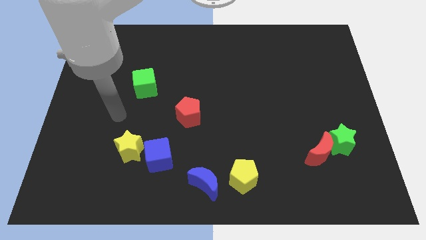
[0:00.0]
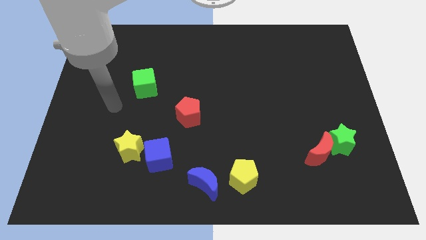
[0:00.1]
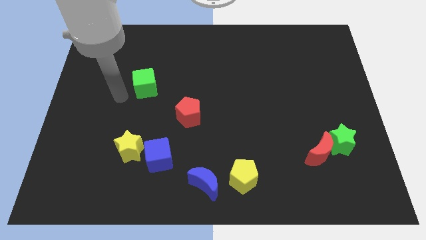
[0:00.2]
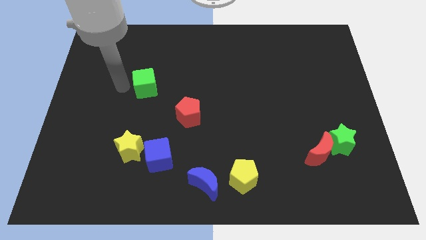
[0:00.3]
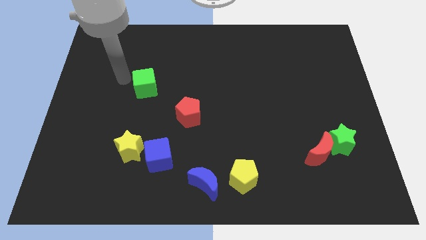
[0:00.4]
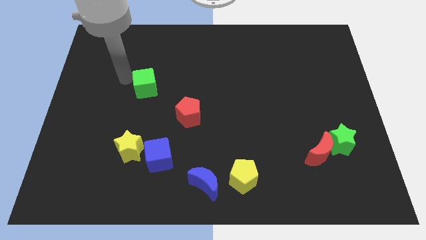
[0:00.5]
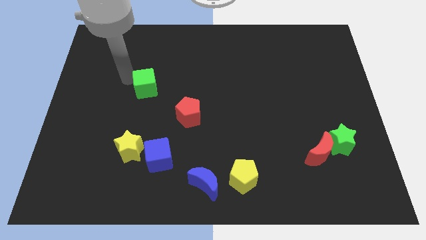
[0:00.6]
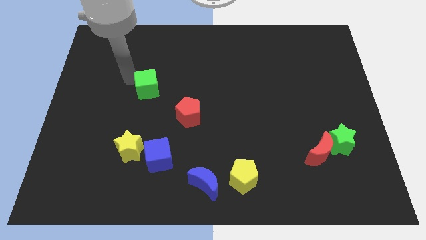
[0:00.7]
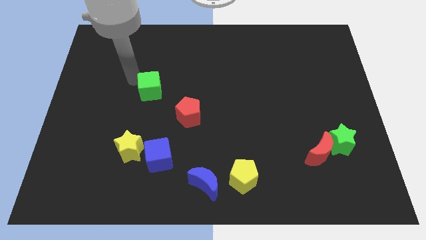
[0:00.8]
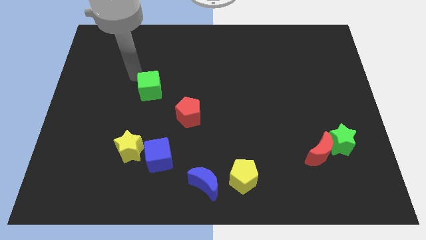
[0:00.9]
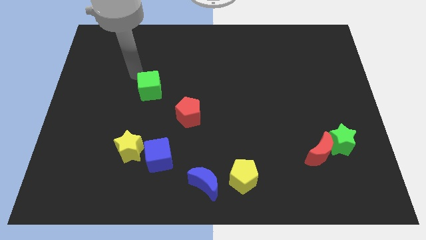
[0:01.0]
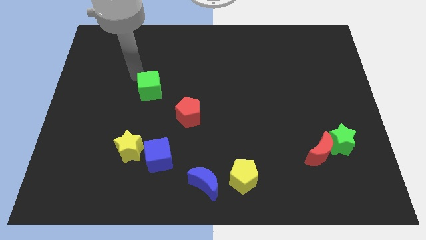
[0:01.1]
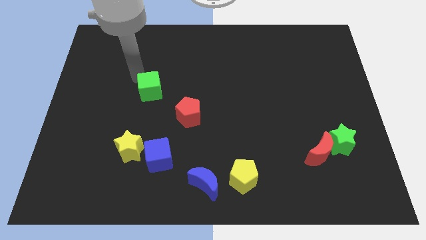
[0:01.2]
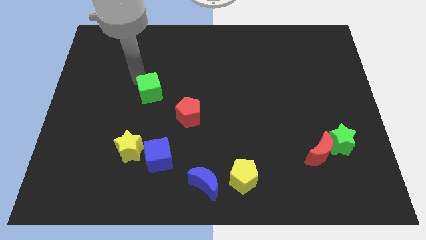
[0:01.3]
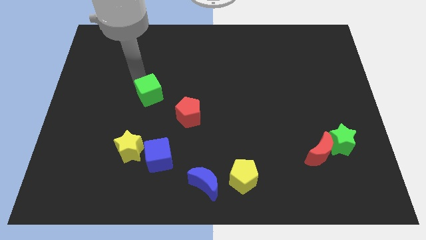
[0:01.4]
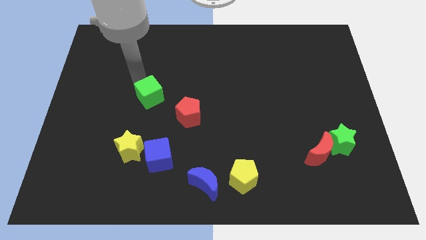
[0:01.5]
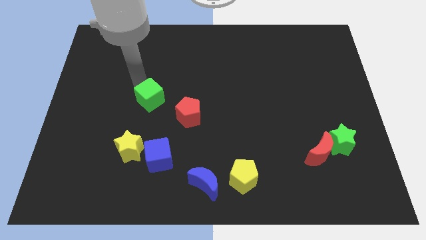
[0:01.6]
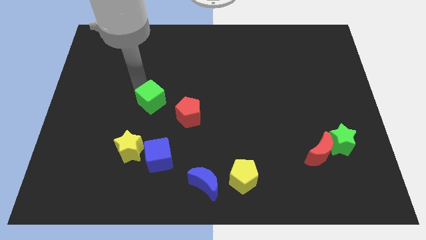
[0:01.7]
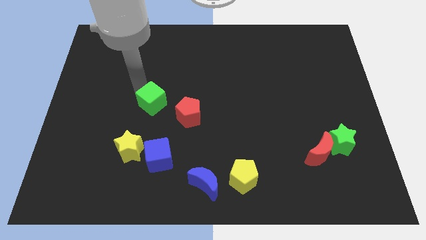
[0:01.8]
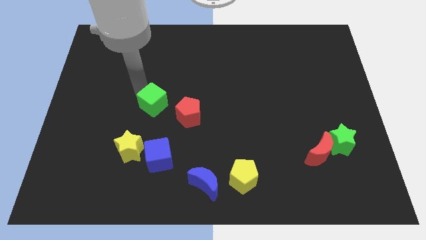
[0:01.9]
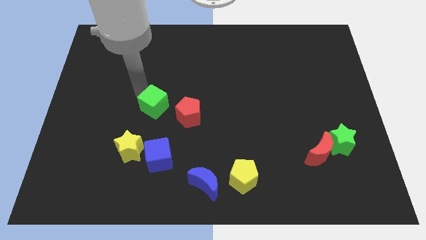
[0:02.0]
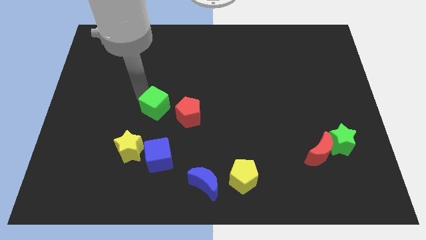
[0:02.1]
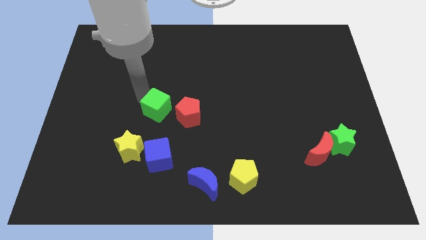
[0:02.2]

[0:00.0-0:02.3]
slide the green cube diagonally down and to the right slightly

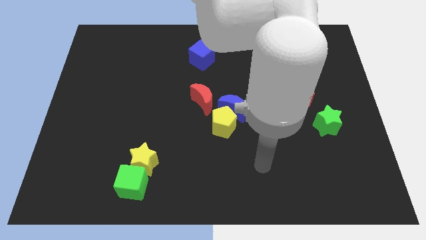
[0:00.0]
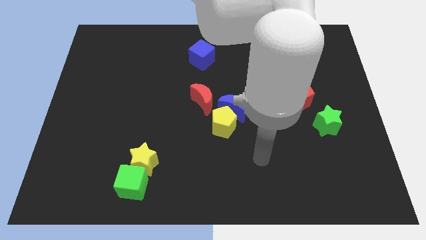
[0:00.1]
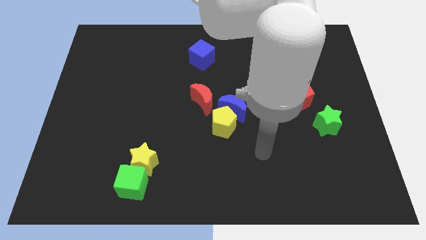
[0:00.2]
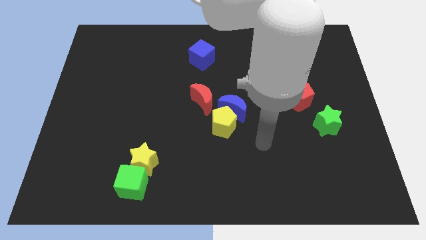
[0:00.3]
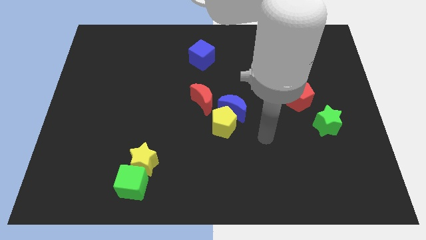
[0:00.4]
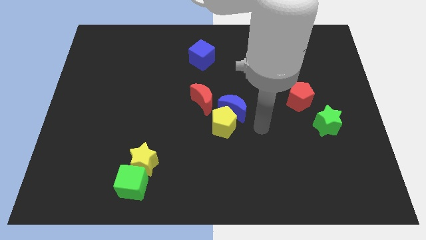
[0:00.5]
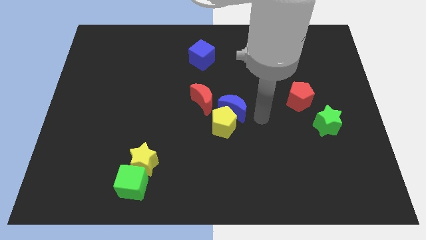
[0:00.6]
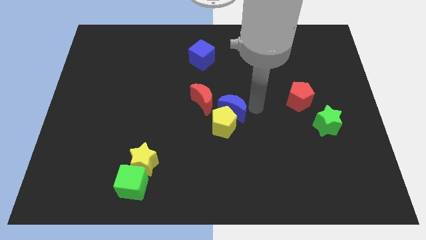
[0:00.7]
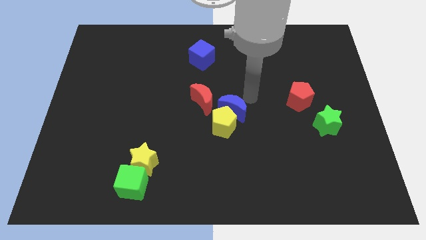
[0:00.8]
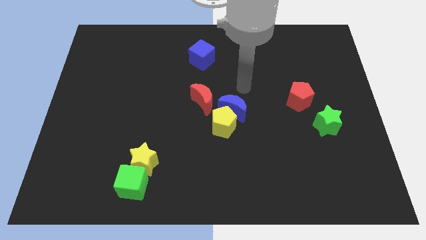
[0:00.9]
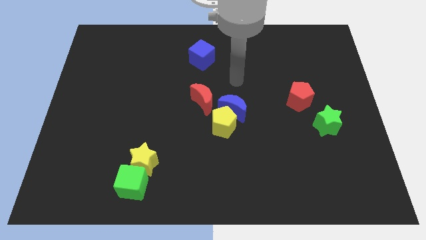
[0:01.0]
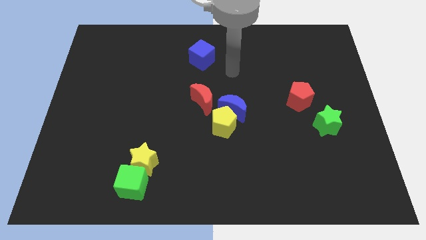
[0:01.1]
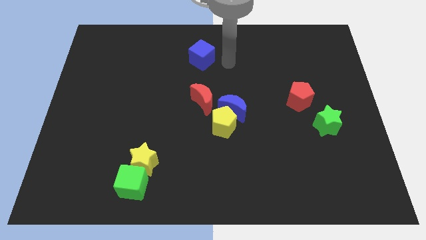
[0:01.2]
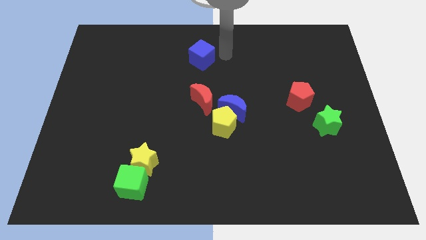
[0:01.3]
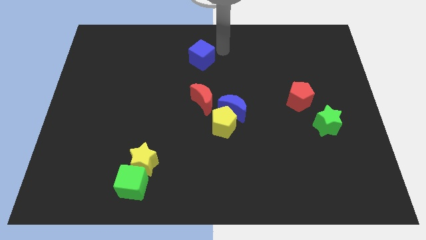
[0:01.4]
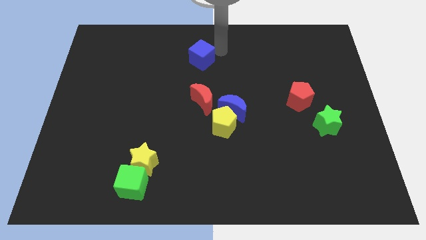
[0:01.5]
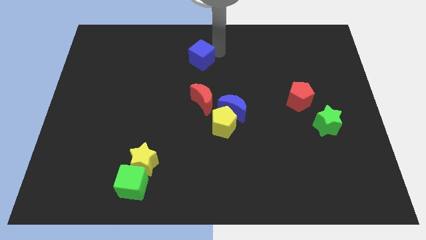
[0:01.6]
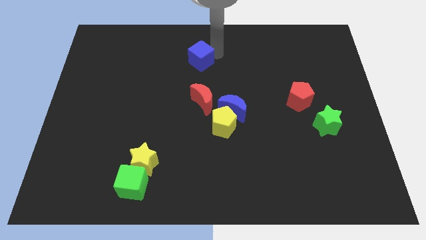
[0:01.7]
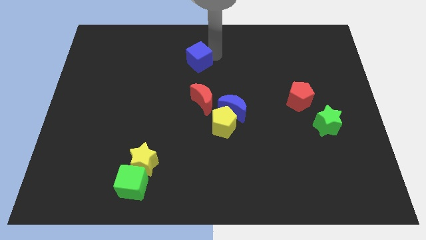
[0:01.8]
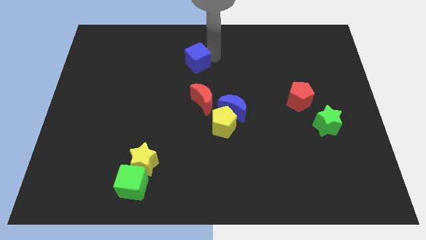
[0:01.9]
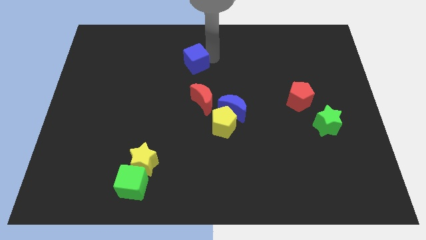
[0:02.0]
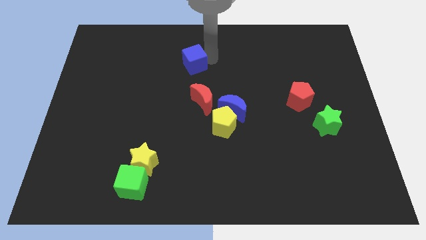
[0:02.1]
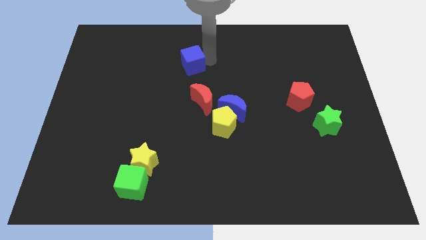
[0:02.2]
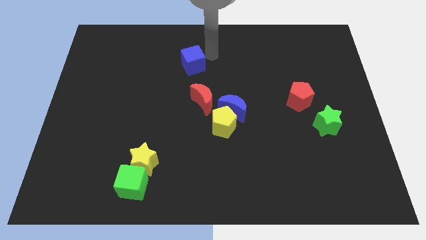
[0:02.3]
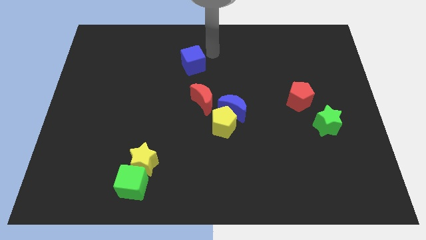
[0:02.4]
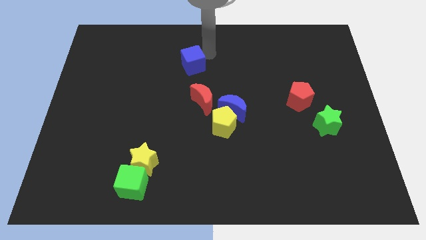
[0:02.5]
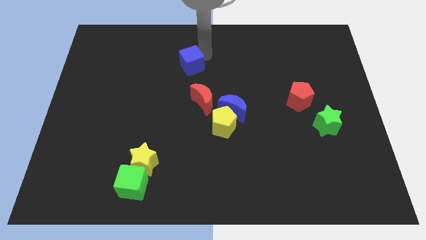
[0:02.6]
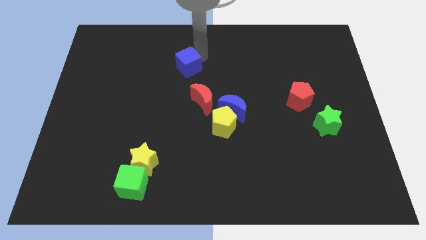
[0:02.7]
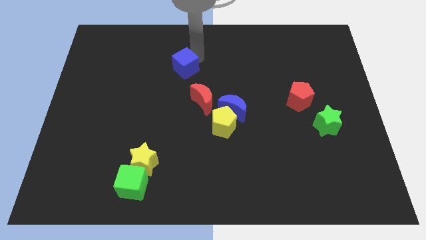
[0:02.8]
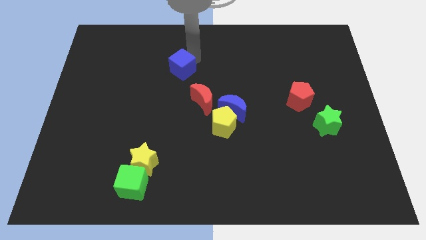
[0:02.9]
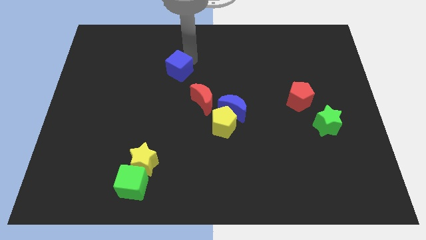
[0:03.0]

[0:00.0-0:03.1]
slightly move the blue cube downwards and to the left diagonally

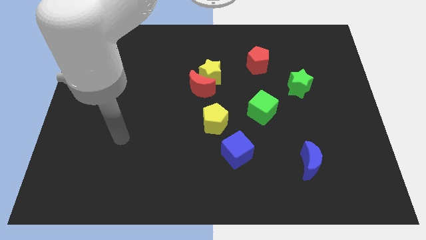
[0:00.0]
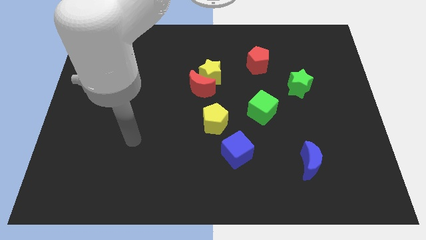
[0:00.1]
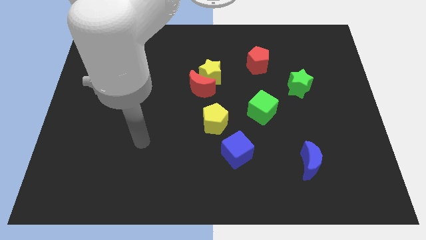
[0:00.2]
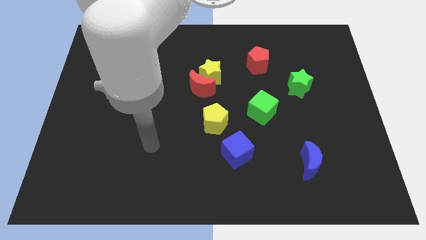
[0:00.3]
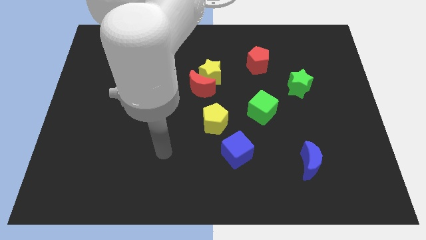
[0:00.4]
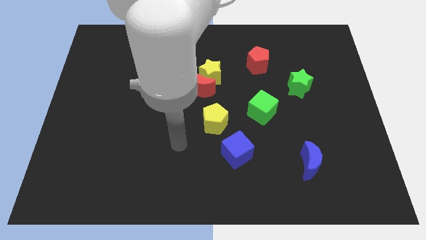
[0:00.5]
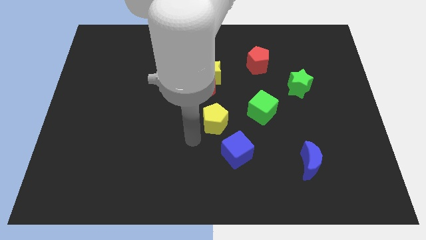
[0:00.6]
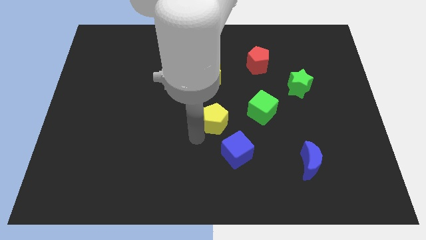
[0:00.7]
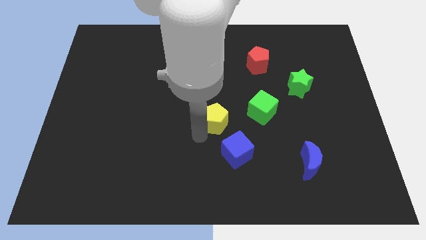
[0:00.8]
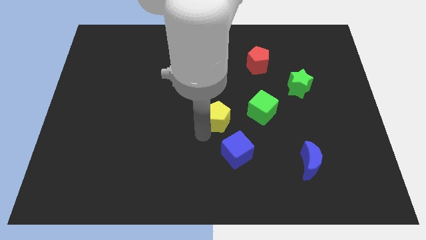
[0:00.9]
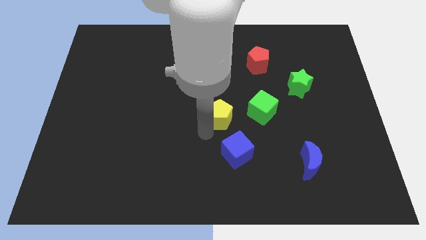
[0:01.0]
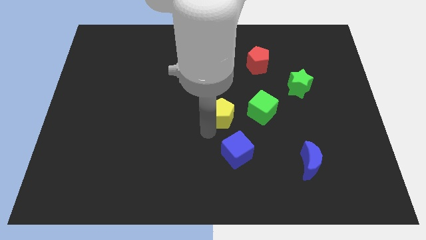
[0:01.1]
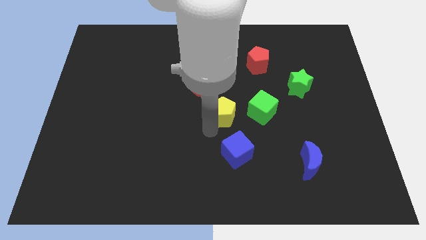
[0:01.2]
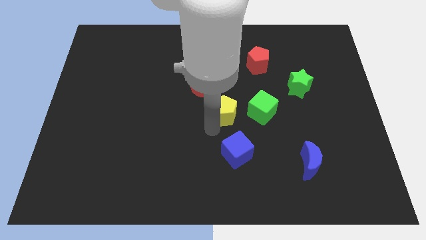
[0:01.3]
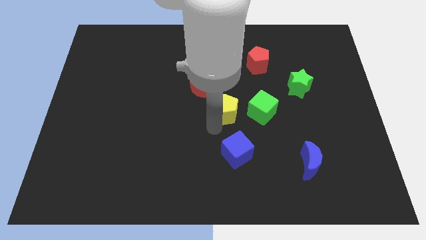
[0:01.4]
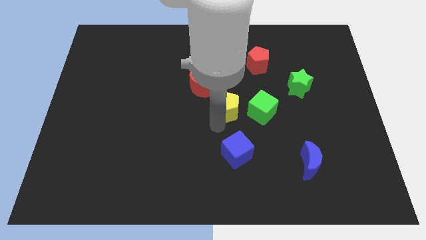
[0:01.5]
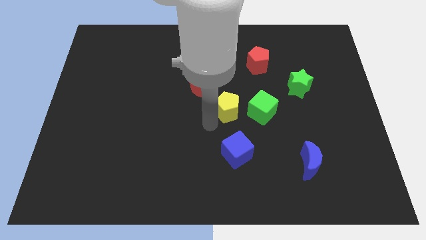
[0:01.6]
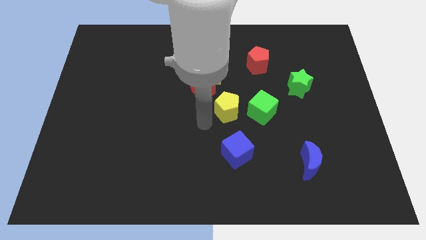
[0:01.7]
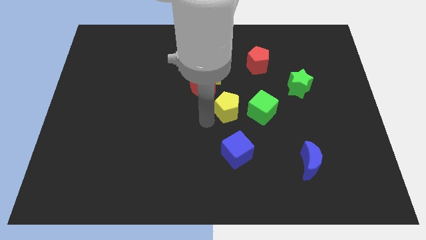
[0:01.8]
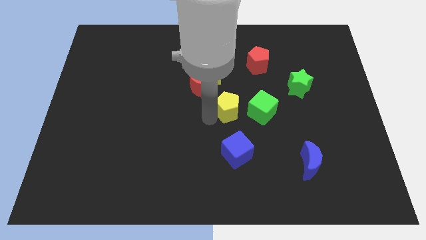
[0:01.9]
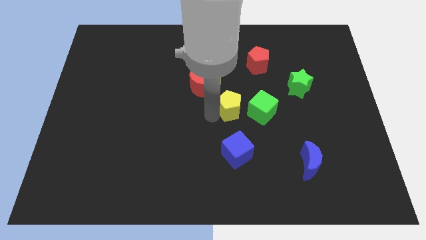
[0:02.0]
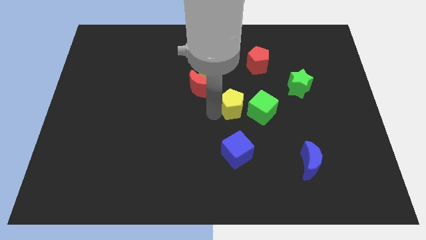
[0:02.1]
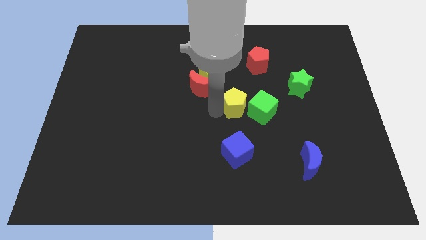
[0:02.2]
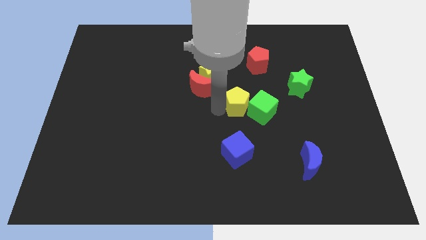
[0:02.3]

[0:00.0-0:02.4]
push the yellow pentagon a little up and right diagonally
